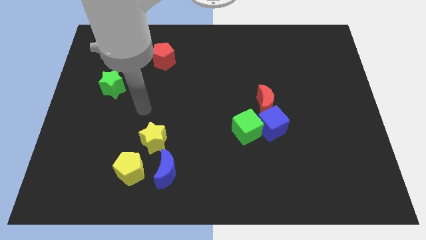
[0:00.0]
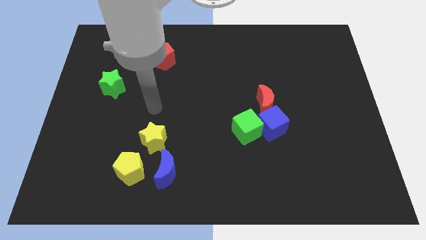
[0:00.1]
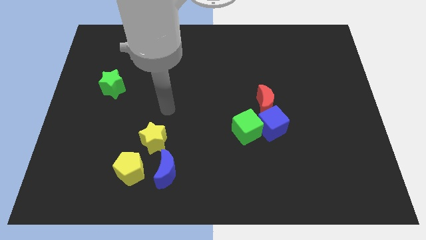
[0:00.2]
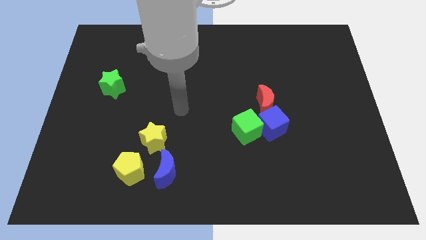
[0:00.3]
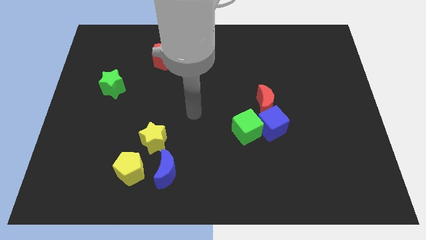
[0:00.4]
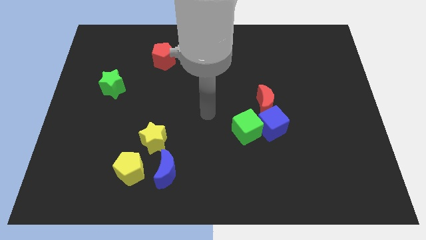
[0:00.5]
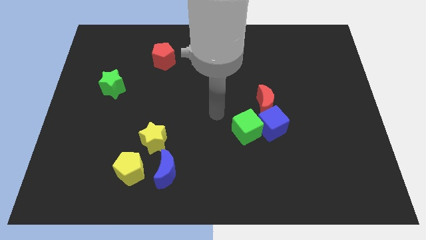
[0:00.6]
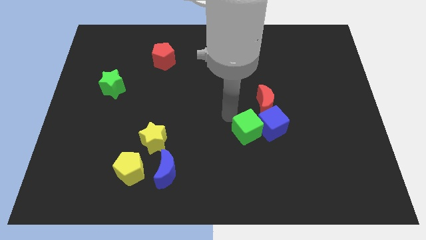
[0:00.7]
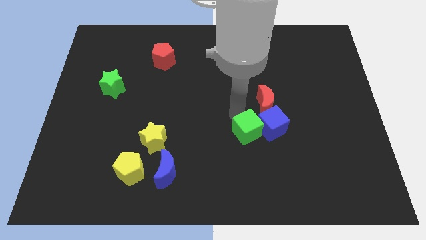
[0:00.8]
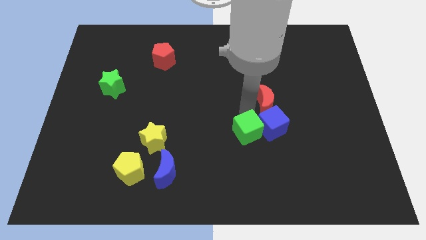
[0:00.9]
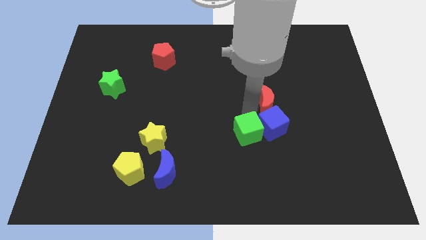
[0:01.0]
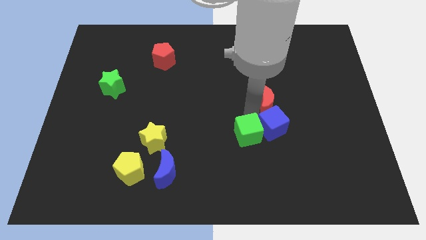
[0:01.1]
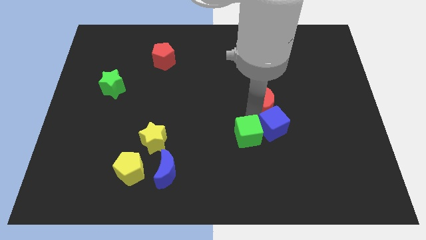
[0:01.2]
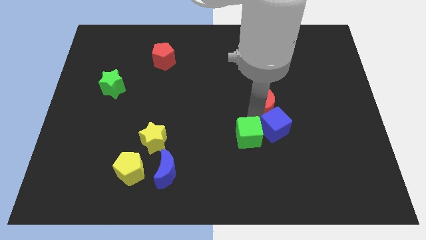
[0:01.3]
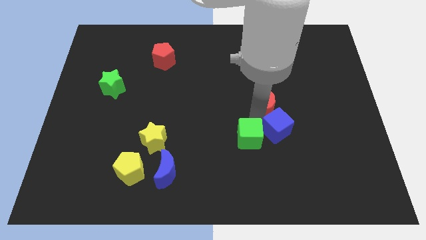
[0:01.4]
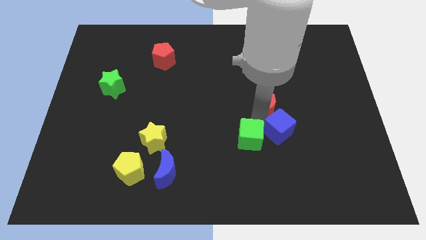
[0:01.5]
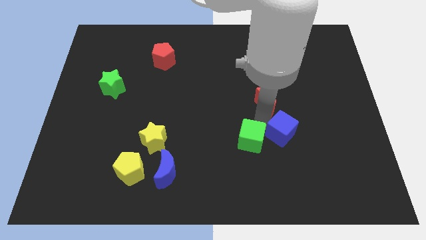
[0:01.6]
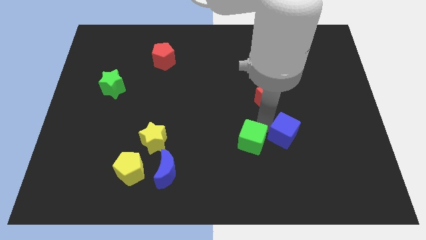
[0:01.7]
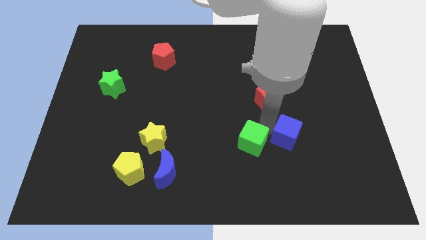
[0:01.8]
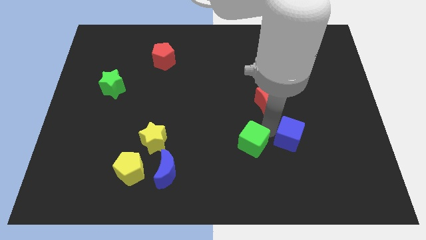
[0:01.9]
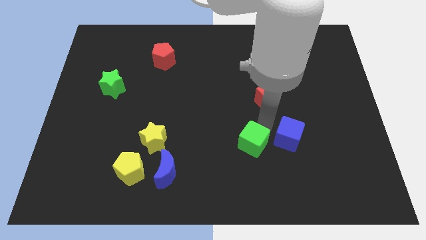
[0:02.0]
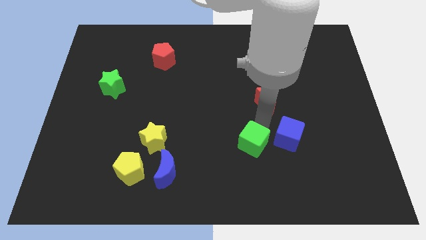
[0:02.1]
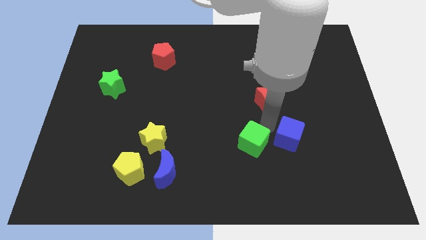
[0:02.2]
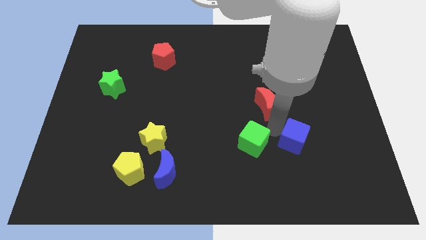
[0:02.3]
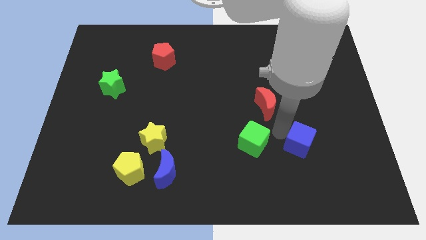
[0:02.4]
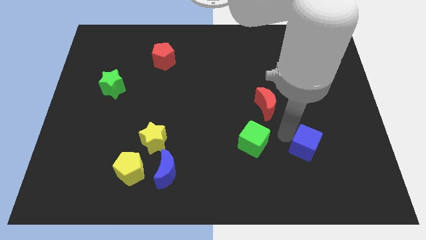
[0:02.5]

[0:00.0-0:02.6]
pull the blue cube apart from the green cube and red moon

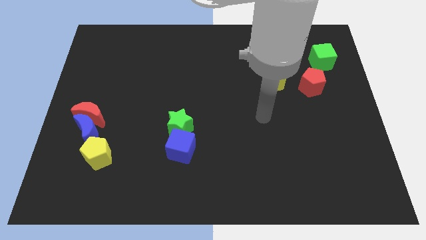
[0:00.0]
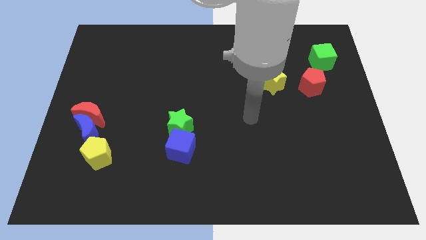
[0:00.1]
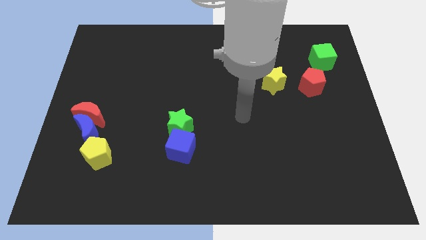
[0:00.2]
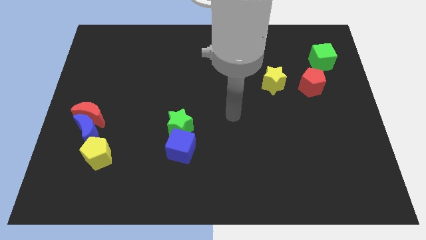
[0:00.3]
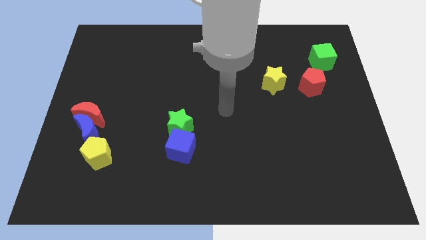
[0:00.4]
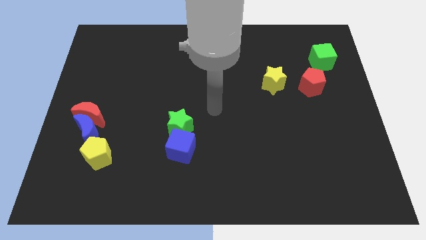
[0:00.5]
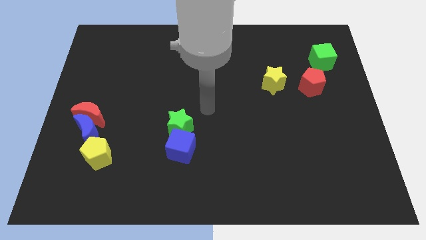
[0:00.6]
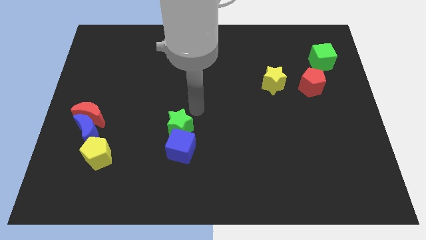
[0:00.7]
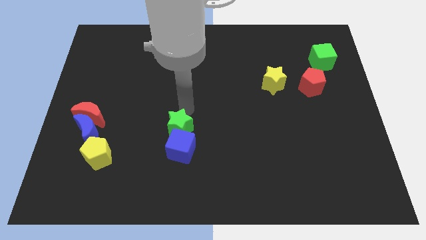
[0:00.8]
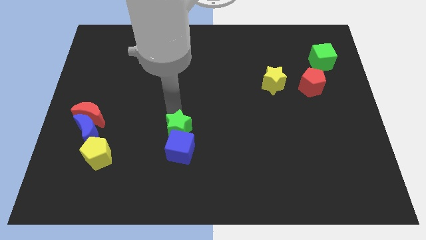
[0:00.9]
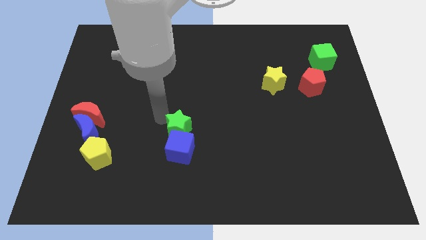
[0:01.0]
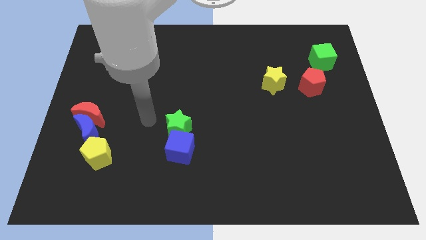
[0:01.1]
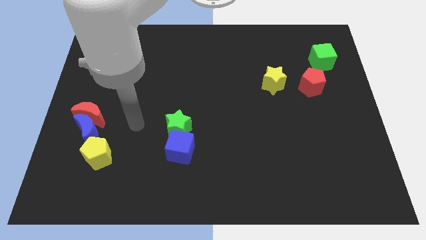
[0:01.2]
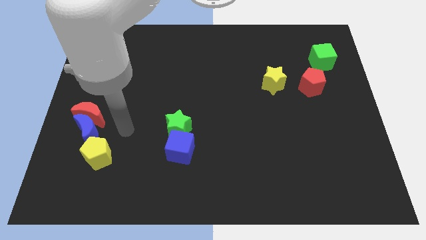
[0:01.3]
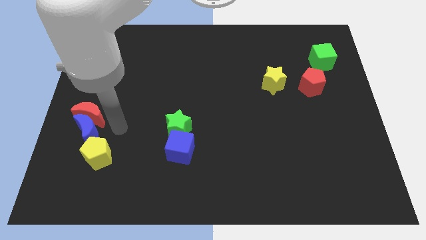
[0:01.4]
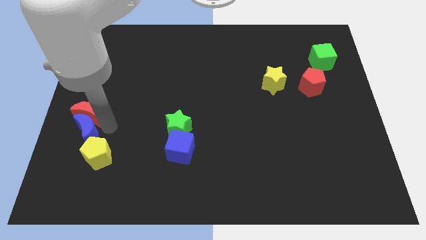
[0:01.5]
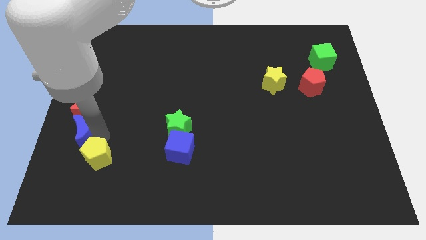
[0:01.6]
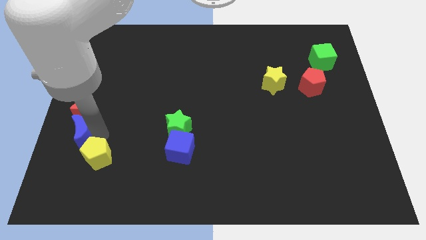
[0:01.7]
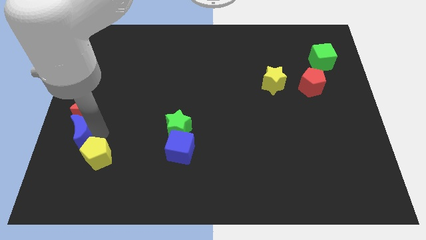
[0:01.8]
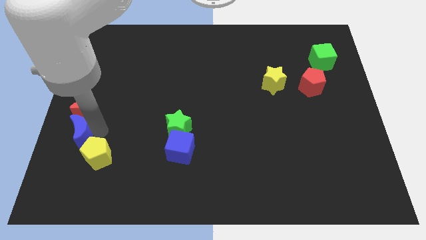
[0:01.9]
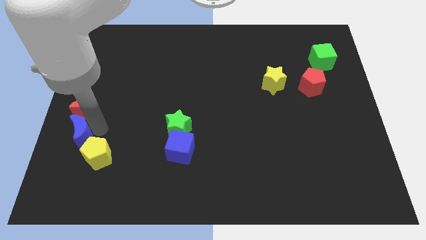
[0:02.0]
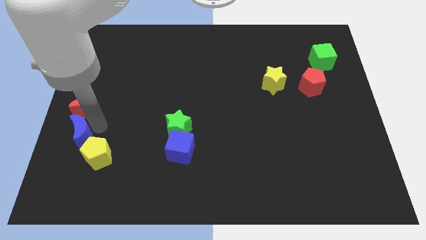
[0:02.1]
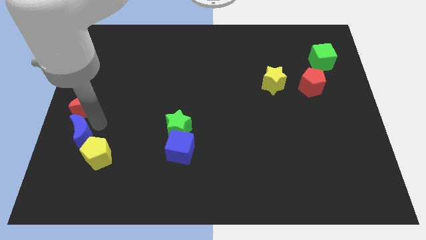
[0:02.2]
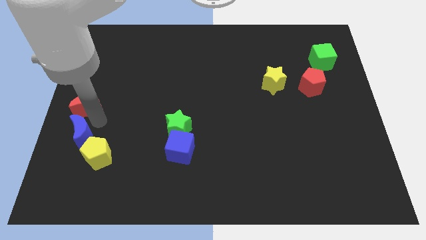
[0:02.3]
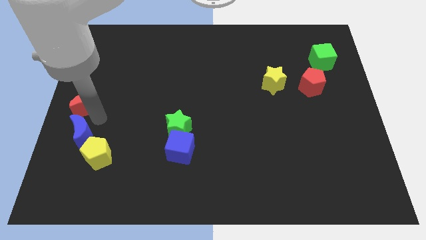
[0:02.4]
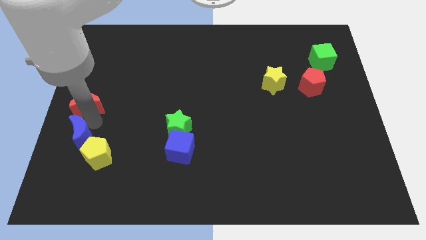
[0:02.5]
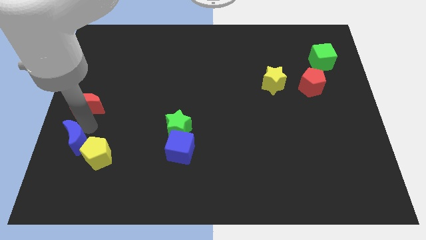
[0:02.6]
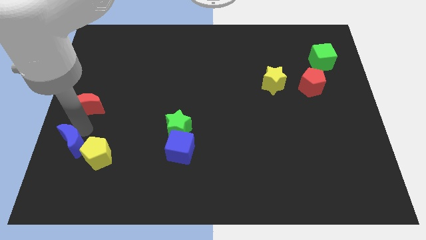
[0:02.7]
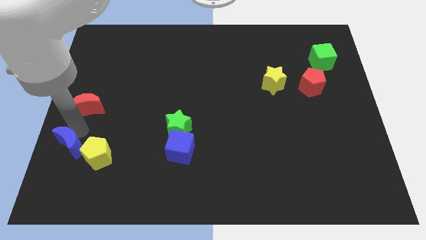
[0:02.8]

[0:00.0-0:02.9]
pull the red moon apart from the blue moon

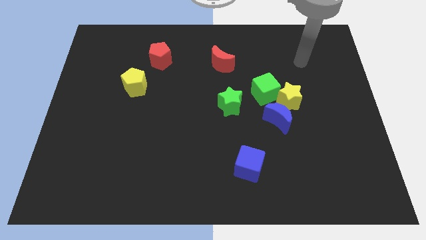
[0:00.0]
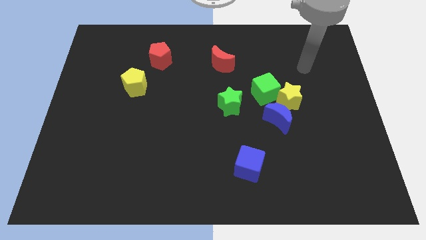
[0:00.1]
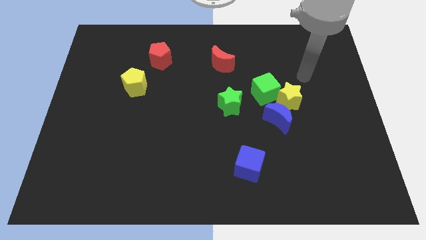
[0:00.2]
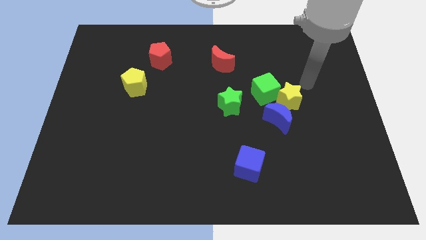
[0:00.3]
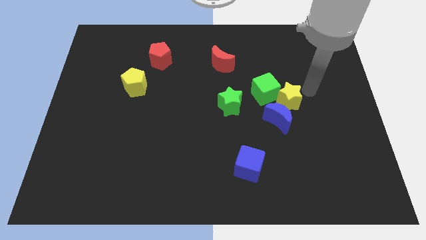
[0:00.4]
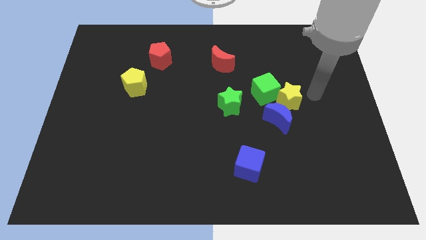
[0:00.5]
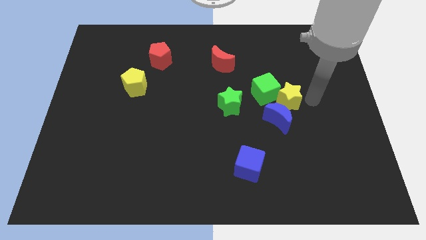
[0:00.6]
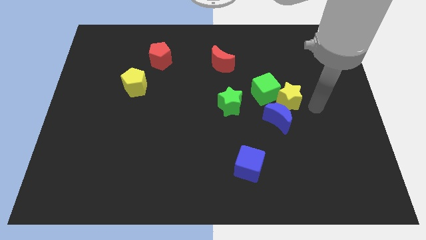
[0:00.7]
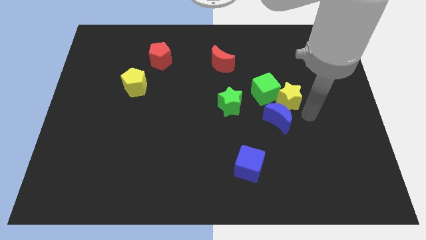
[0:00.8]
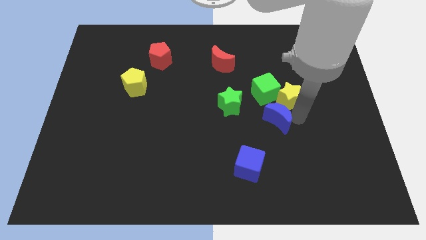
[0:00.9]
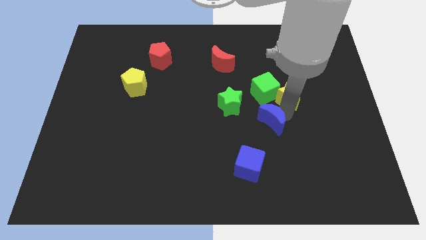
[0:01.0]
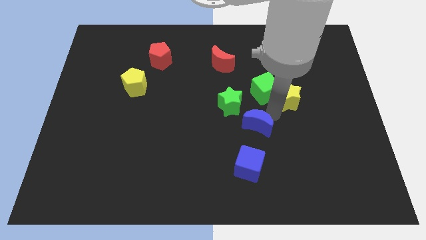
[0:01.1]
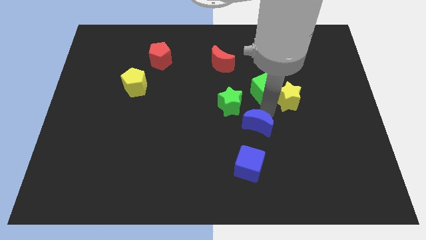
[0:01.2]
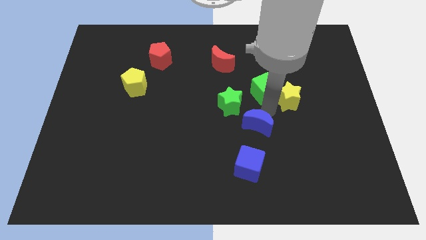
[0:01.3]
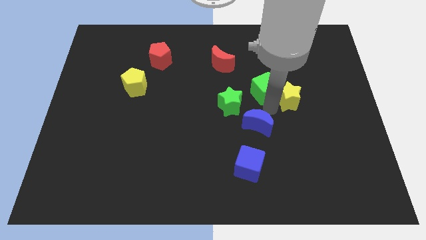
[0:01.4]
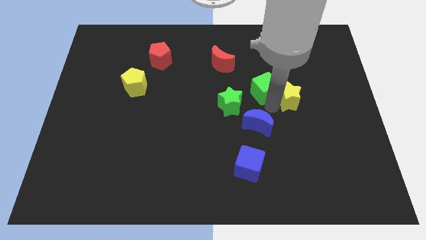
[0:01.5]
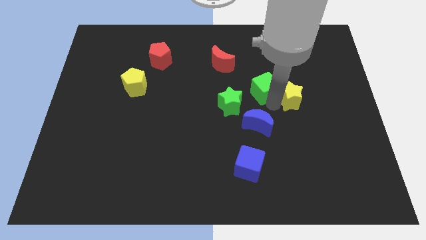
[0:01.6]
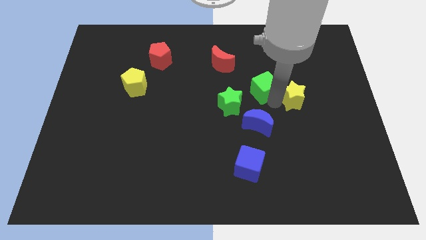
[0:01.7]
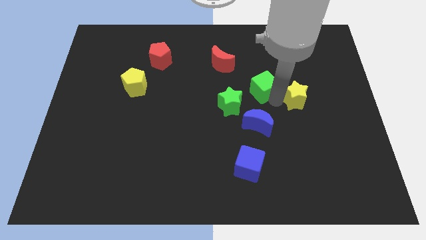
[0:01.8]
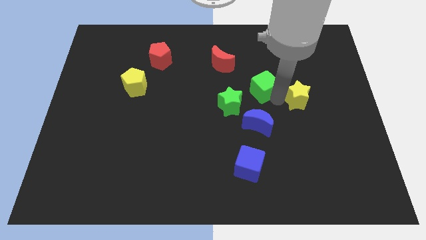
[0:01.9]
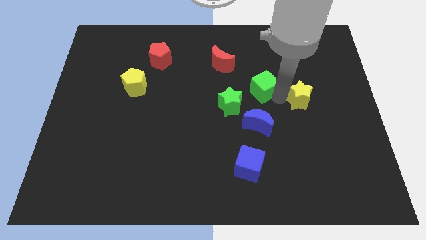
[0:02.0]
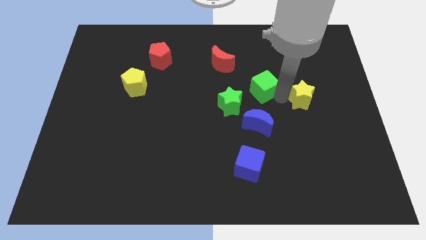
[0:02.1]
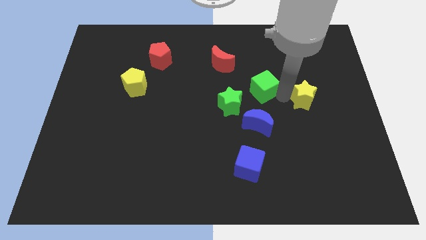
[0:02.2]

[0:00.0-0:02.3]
pull the yellow star apart from the green cube and blue moon

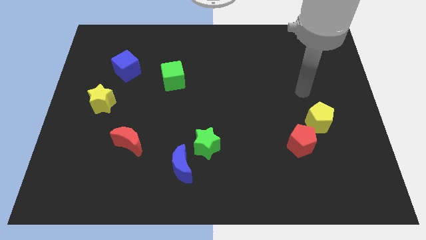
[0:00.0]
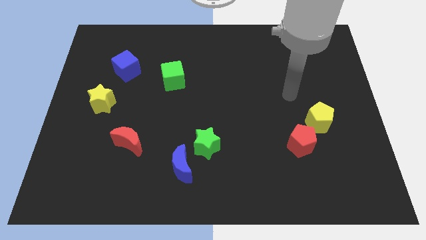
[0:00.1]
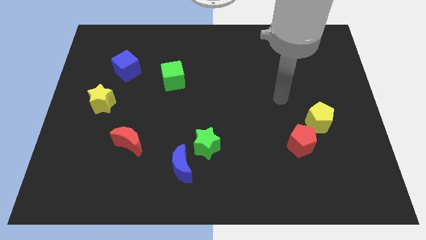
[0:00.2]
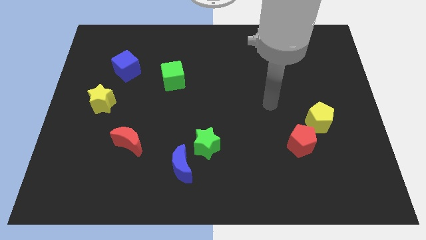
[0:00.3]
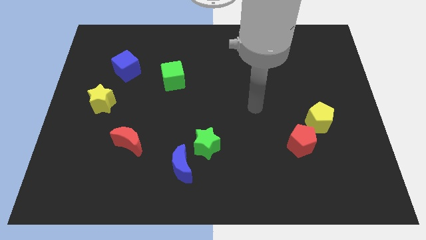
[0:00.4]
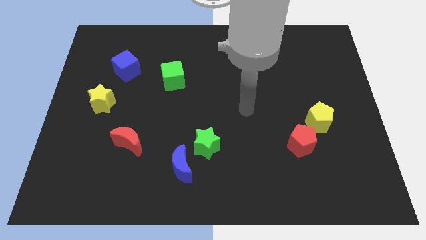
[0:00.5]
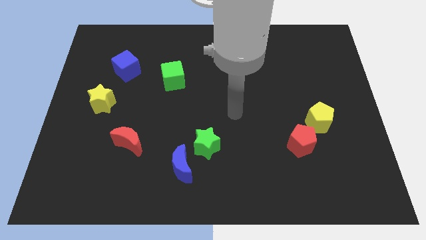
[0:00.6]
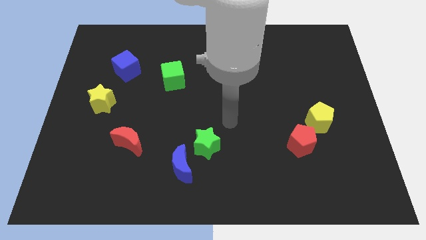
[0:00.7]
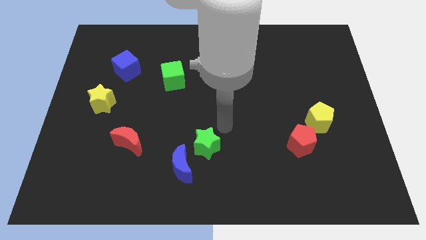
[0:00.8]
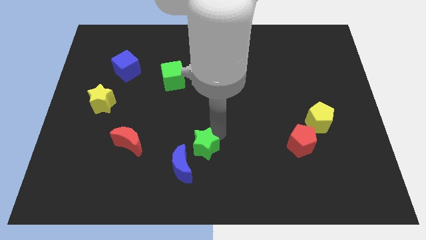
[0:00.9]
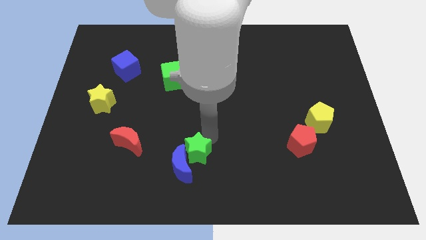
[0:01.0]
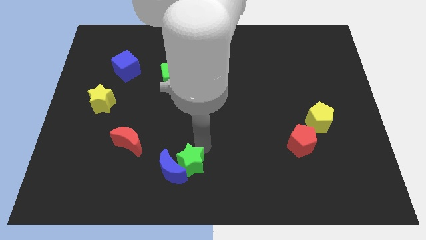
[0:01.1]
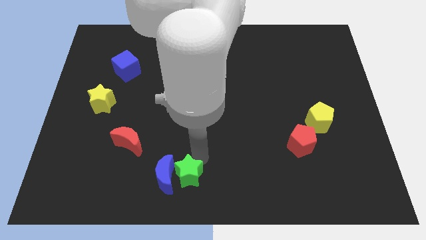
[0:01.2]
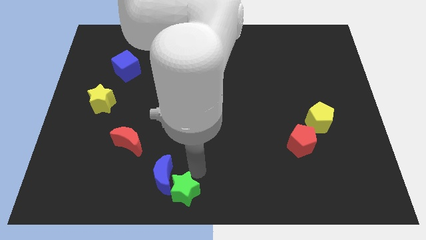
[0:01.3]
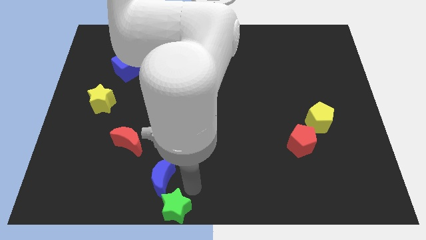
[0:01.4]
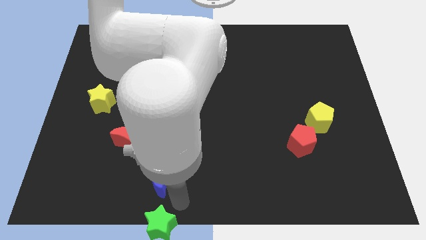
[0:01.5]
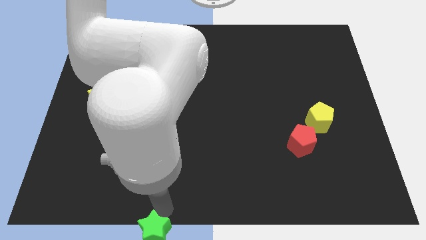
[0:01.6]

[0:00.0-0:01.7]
pull the blue moon apart from the green star
